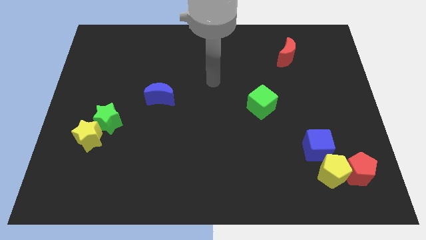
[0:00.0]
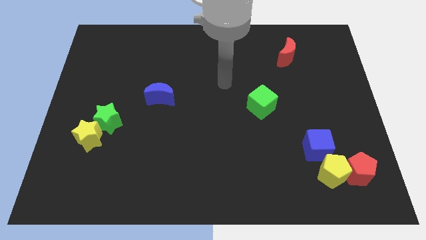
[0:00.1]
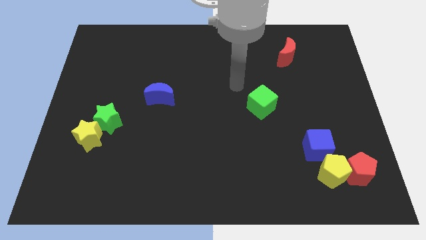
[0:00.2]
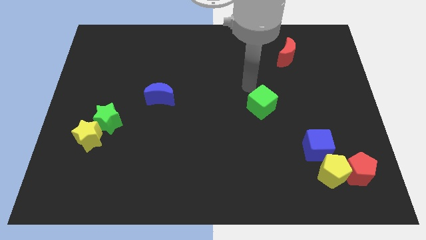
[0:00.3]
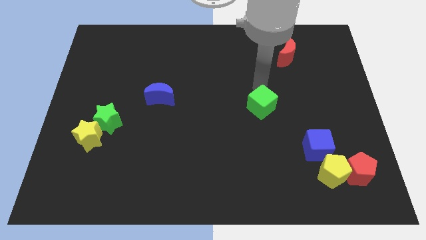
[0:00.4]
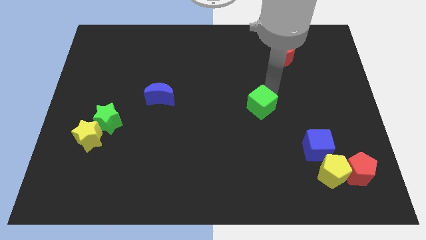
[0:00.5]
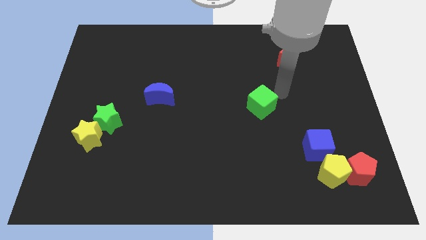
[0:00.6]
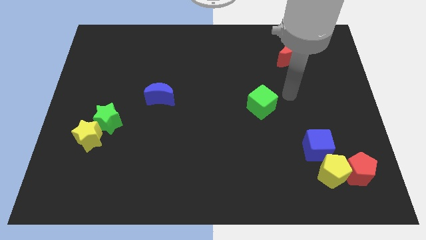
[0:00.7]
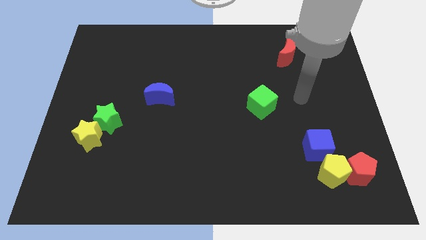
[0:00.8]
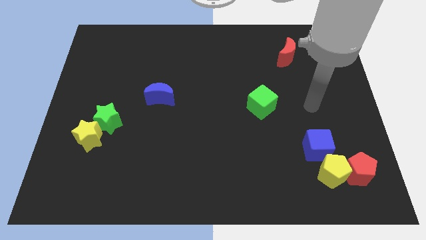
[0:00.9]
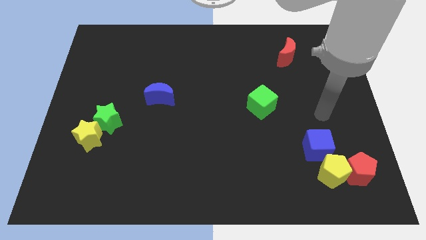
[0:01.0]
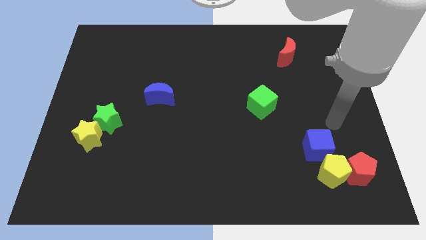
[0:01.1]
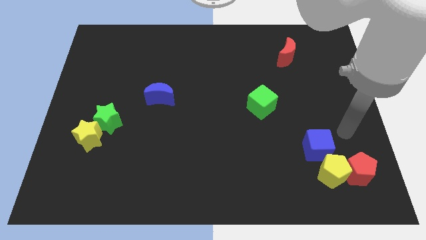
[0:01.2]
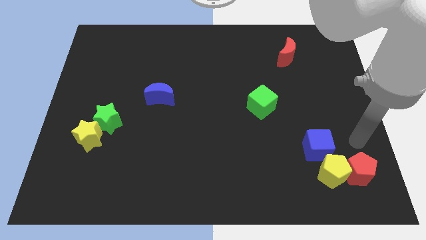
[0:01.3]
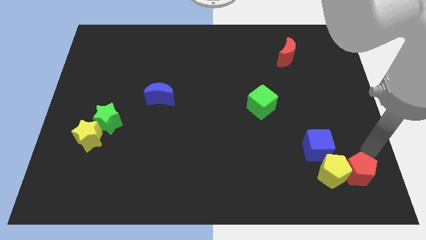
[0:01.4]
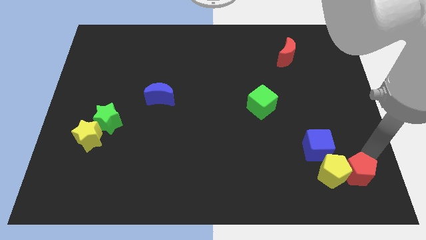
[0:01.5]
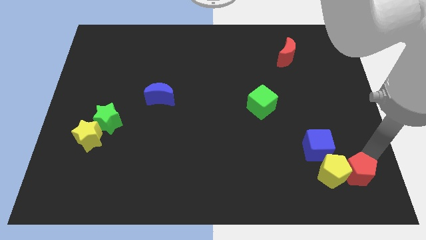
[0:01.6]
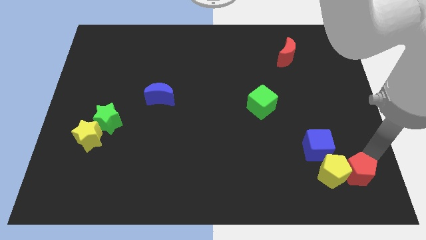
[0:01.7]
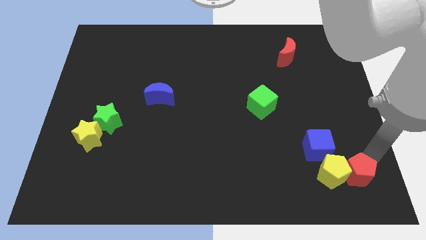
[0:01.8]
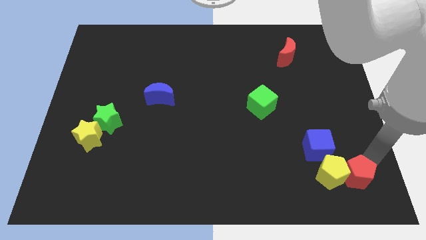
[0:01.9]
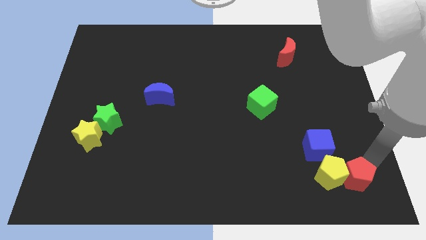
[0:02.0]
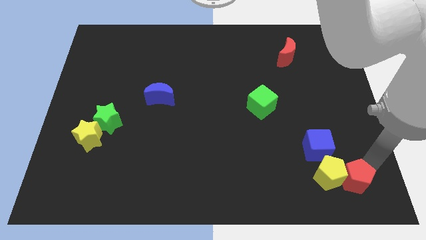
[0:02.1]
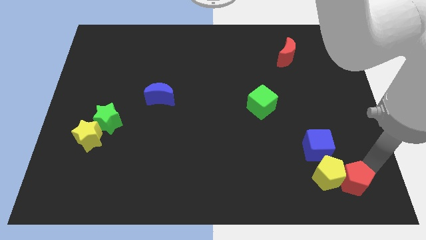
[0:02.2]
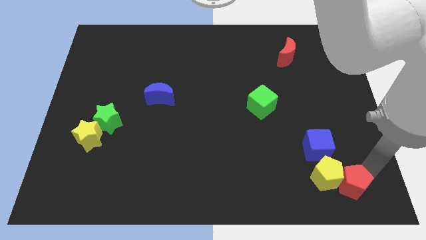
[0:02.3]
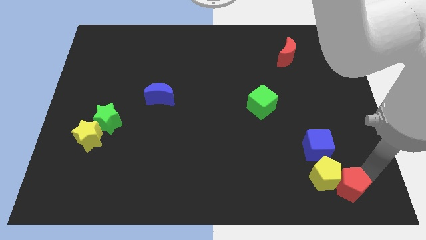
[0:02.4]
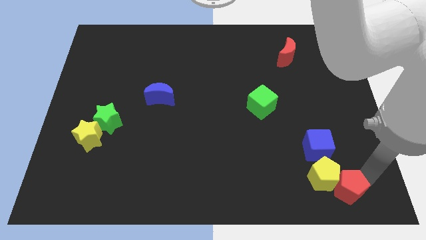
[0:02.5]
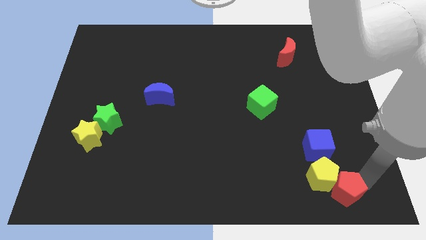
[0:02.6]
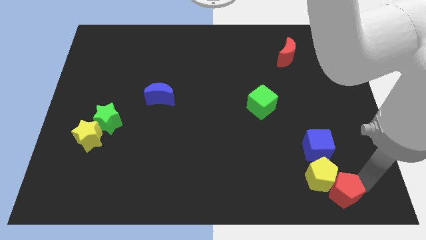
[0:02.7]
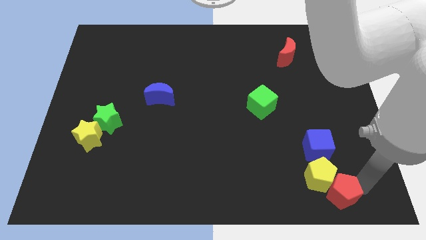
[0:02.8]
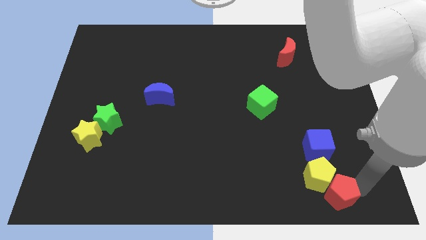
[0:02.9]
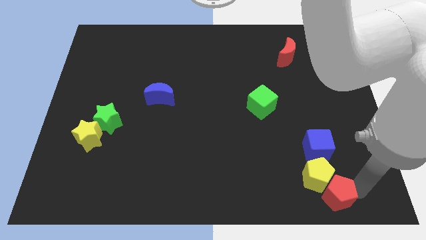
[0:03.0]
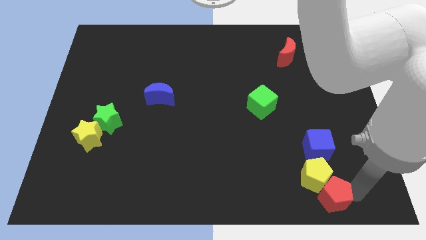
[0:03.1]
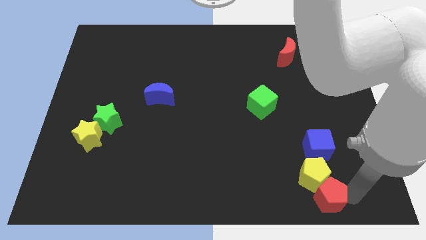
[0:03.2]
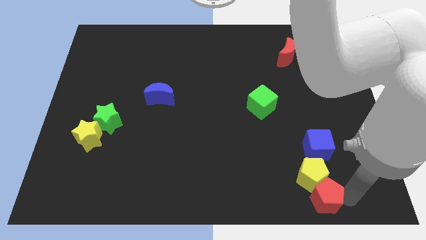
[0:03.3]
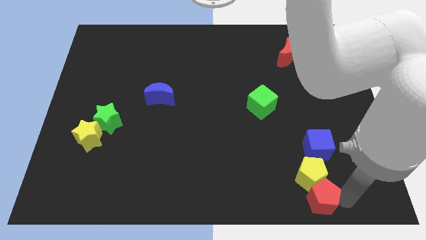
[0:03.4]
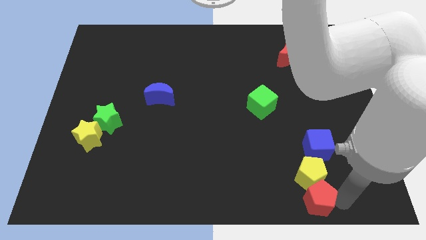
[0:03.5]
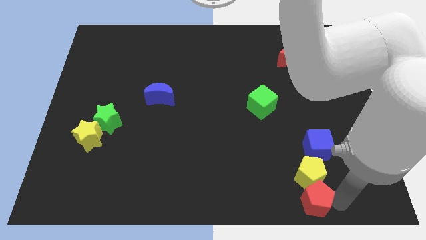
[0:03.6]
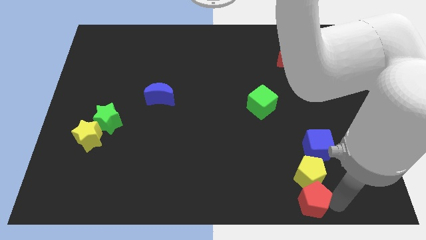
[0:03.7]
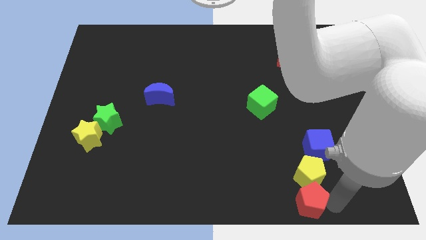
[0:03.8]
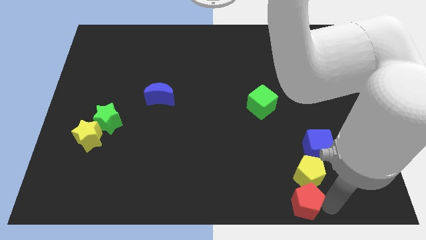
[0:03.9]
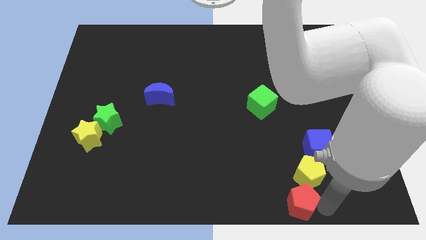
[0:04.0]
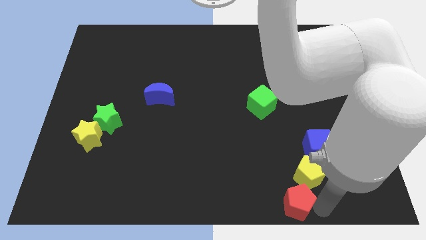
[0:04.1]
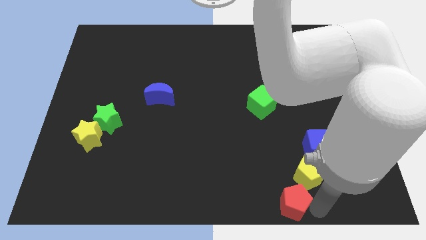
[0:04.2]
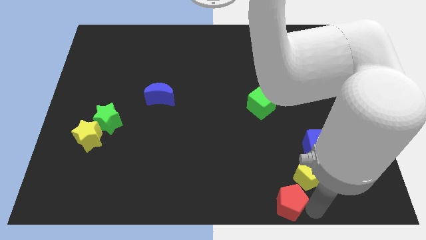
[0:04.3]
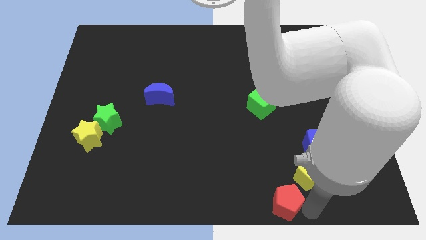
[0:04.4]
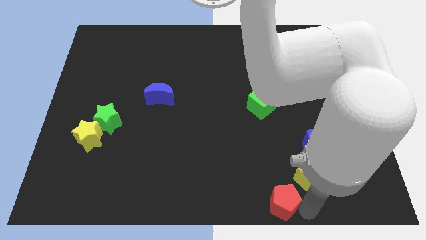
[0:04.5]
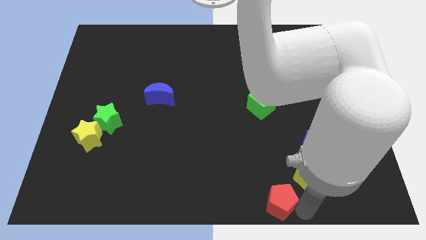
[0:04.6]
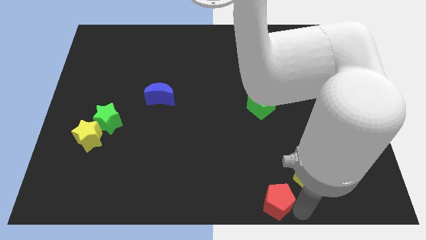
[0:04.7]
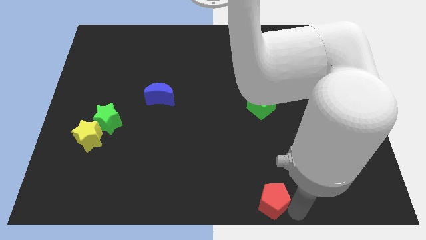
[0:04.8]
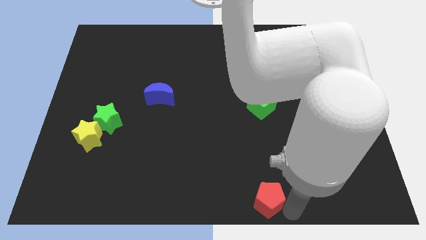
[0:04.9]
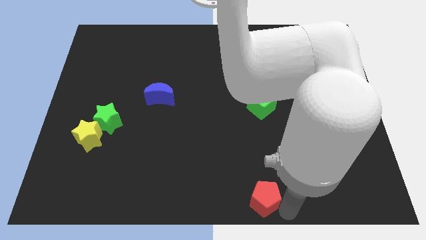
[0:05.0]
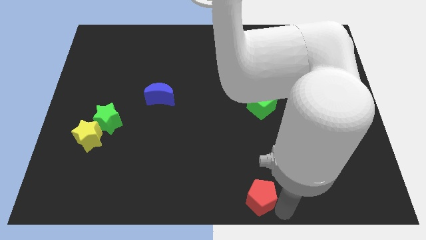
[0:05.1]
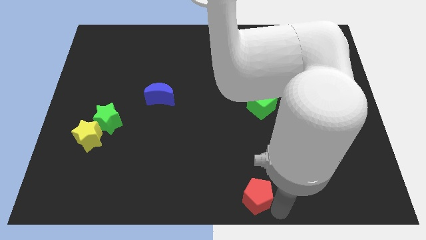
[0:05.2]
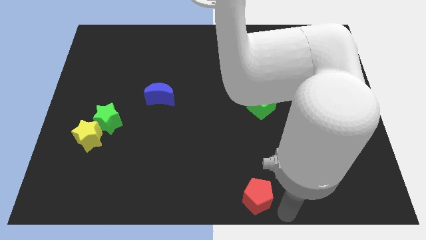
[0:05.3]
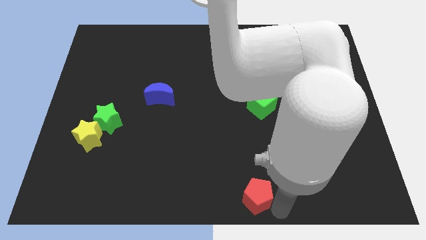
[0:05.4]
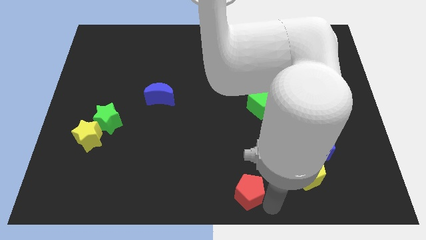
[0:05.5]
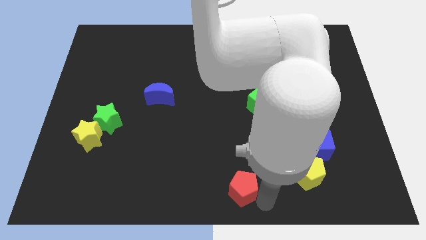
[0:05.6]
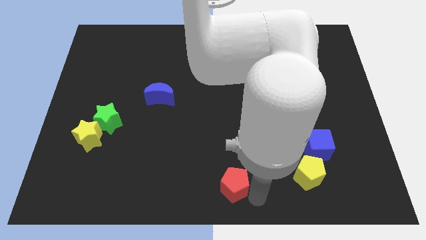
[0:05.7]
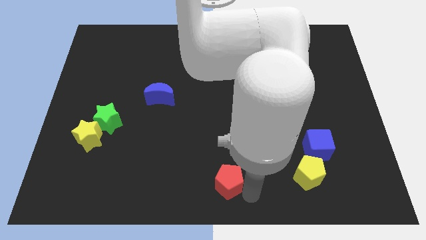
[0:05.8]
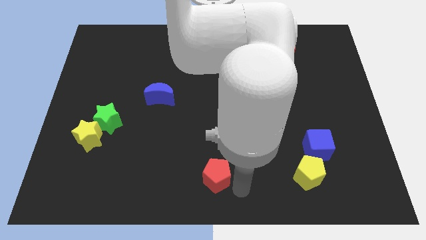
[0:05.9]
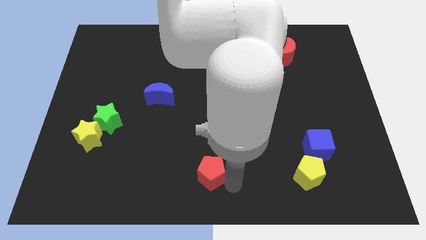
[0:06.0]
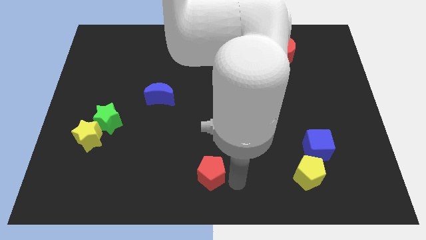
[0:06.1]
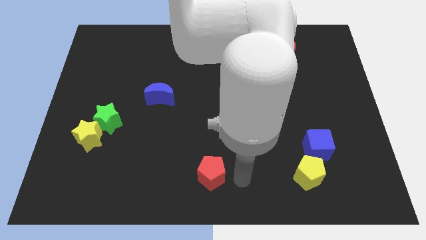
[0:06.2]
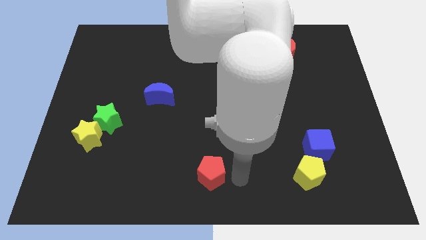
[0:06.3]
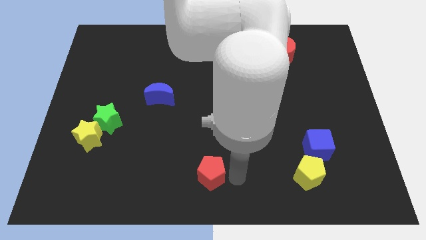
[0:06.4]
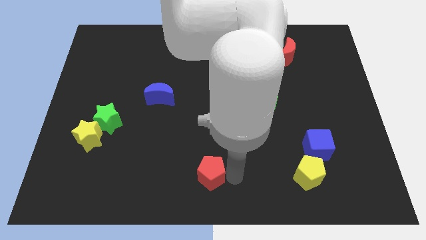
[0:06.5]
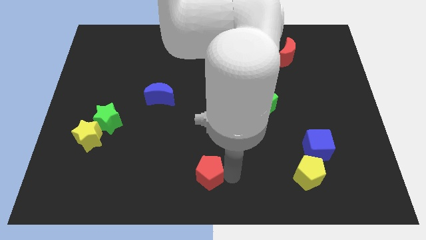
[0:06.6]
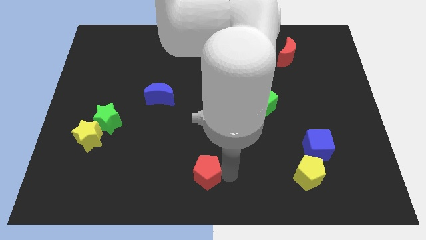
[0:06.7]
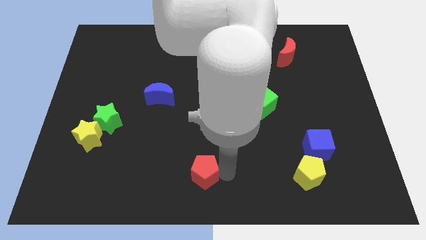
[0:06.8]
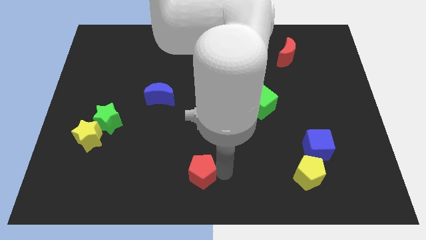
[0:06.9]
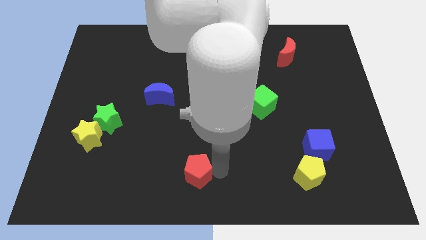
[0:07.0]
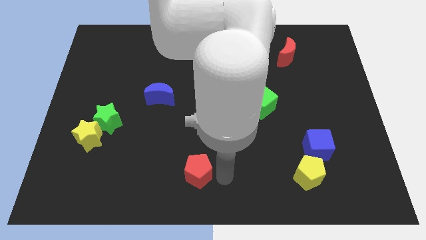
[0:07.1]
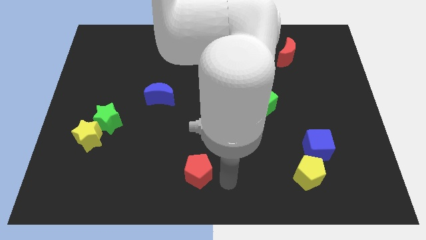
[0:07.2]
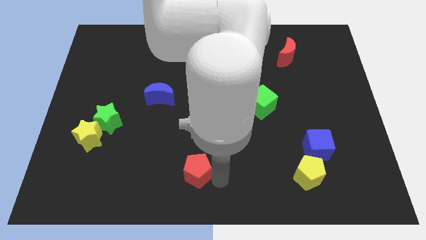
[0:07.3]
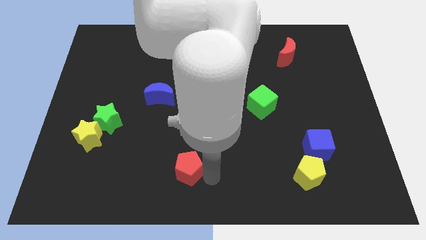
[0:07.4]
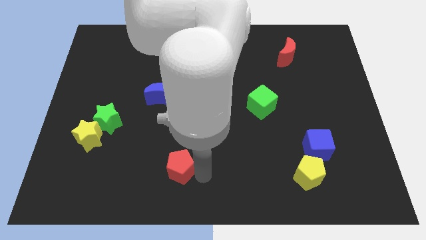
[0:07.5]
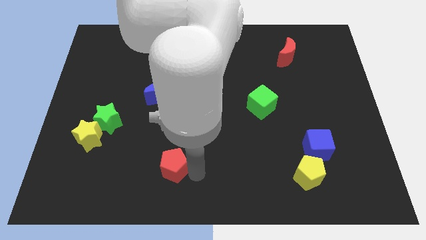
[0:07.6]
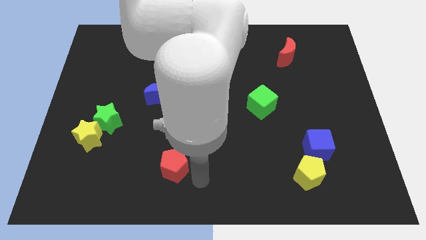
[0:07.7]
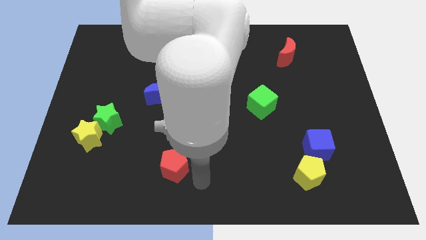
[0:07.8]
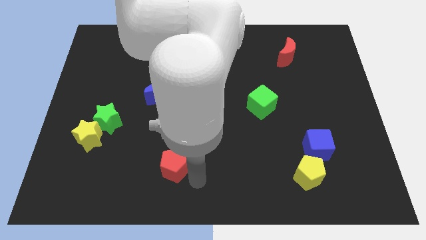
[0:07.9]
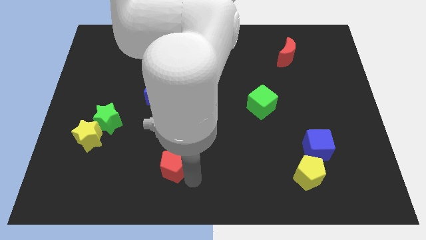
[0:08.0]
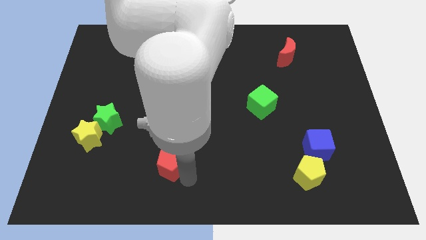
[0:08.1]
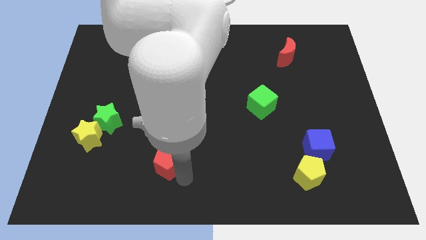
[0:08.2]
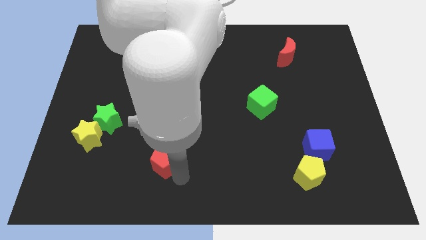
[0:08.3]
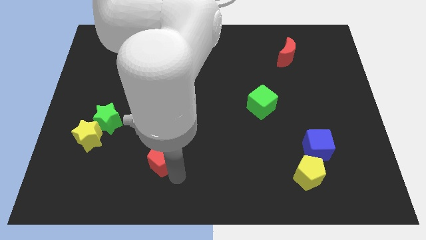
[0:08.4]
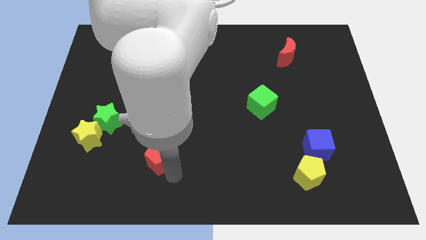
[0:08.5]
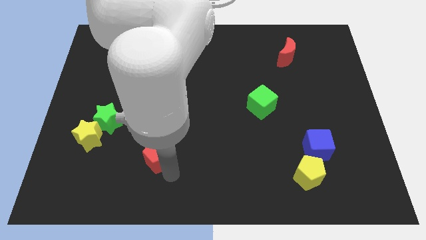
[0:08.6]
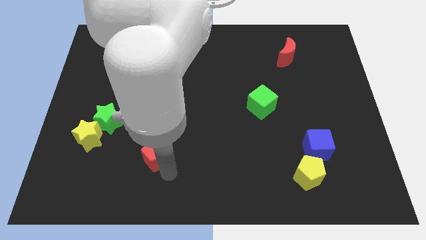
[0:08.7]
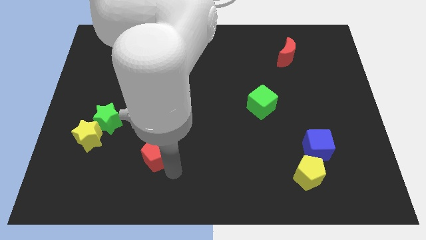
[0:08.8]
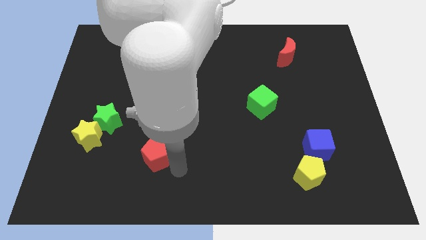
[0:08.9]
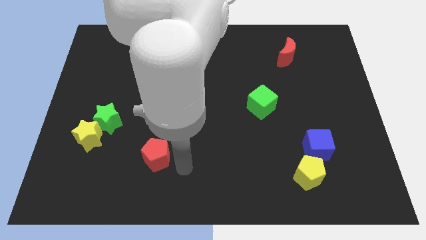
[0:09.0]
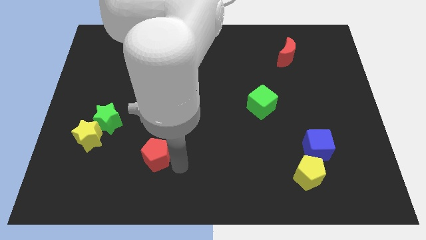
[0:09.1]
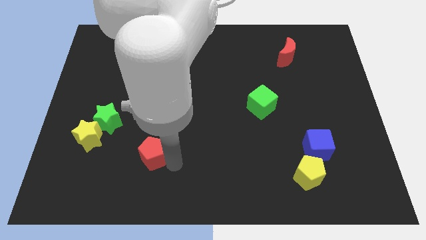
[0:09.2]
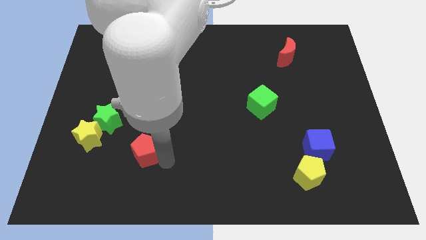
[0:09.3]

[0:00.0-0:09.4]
put the red pentagon diagonally down and to the right of the green star
